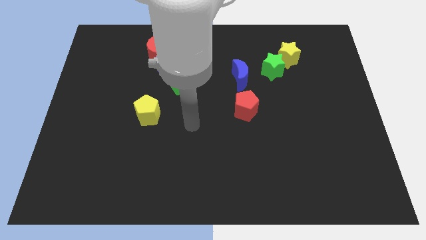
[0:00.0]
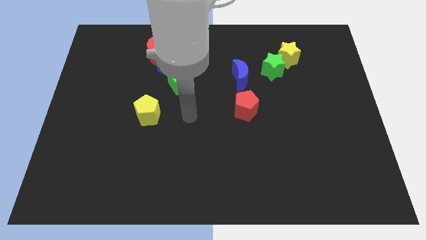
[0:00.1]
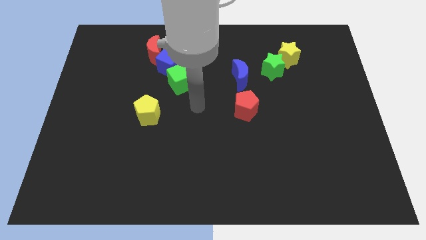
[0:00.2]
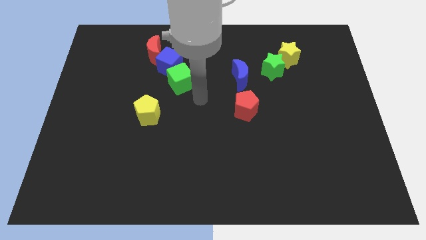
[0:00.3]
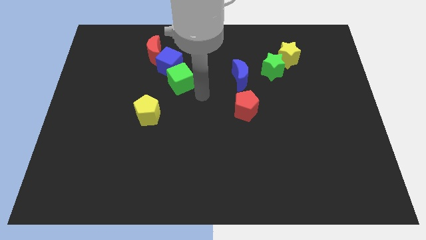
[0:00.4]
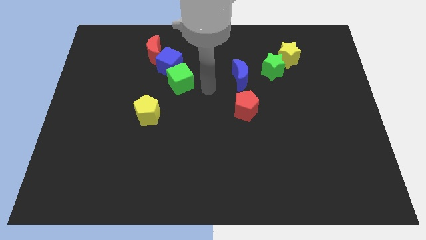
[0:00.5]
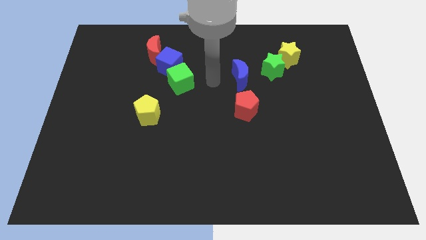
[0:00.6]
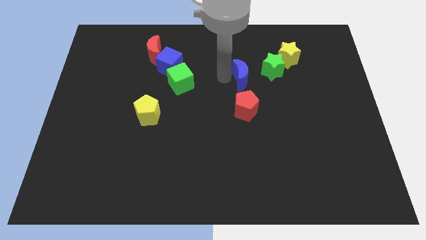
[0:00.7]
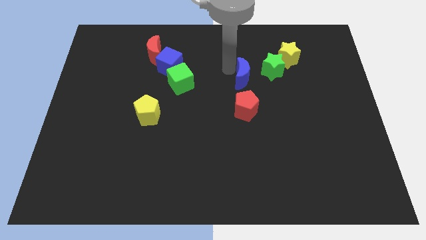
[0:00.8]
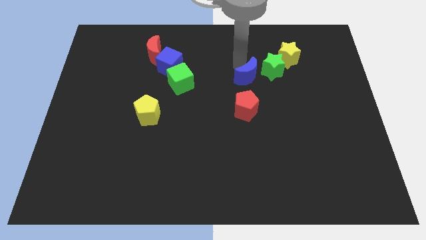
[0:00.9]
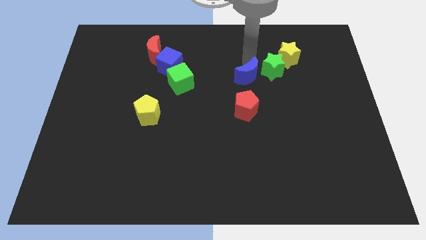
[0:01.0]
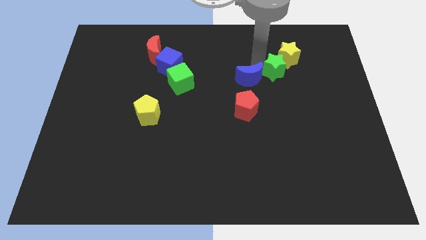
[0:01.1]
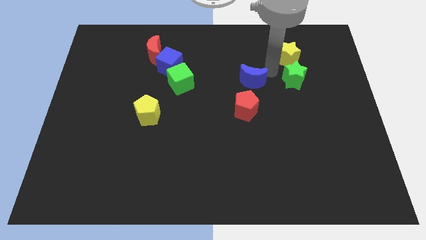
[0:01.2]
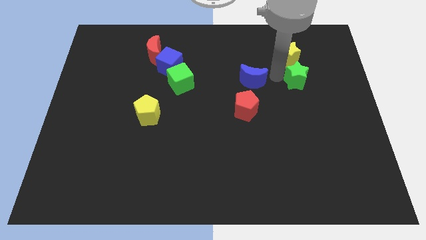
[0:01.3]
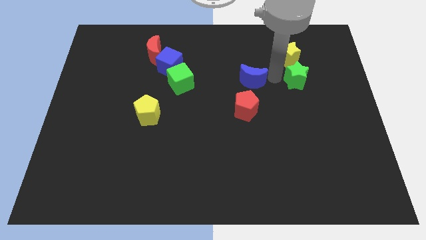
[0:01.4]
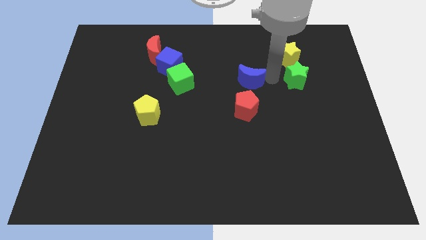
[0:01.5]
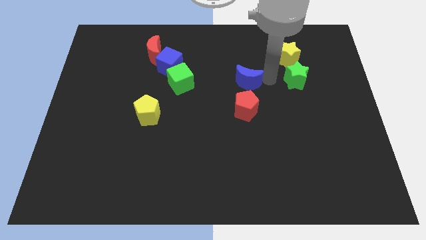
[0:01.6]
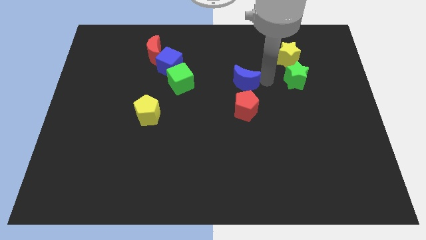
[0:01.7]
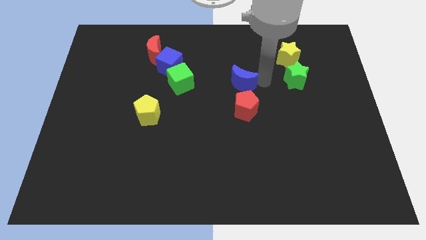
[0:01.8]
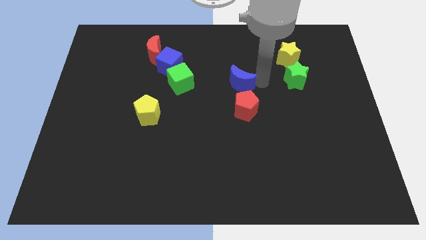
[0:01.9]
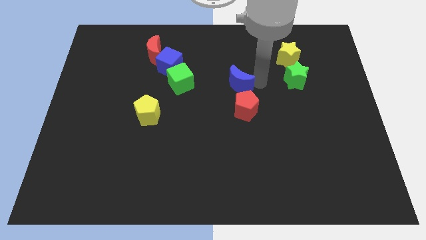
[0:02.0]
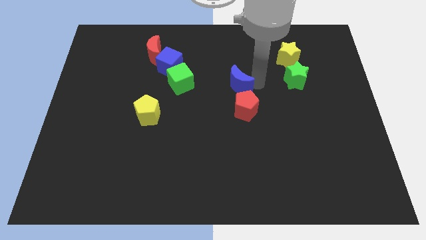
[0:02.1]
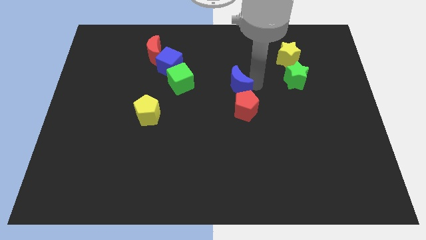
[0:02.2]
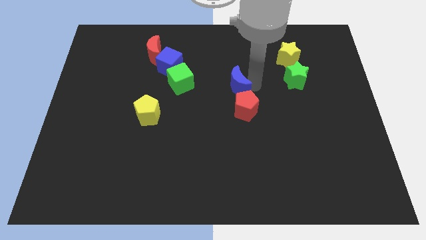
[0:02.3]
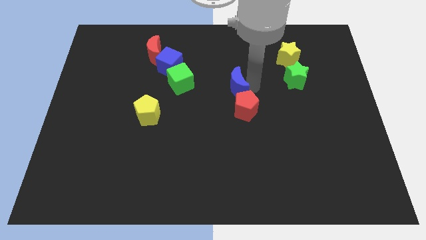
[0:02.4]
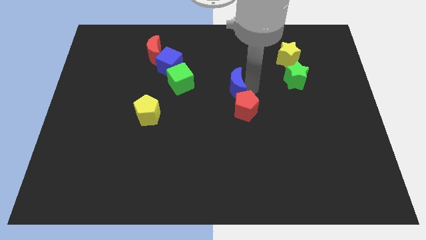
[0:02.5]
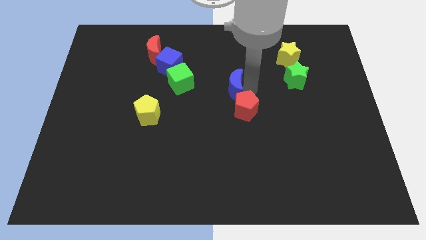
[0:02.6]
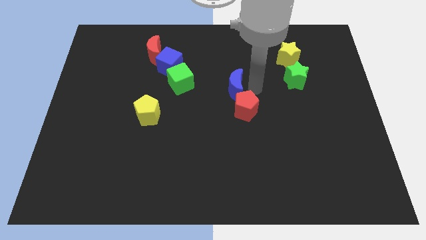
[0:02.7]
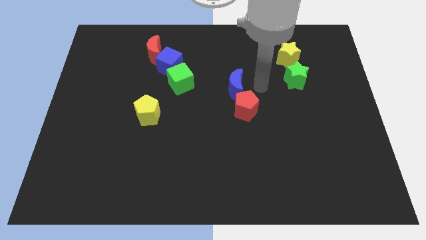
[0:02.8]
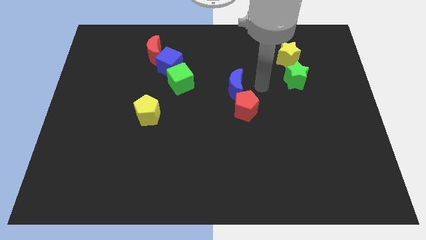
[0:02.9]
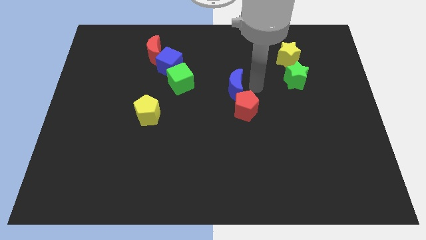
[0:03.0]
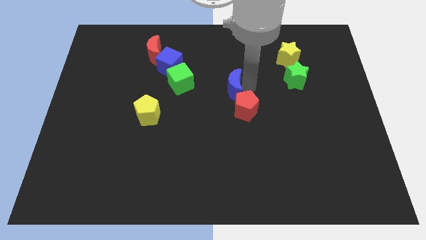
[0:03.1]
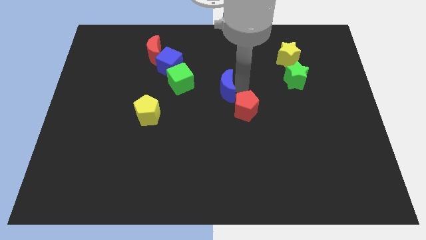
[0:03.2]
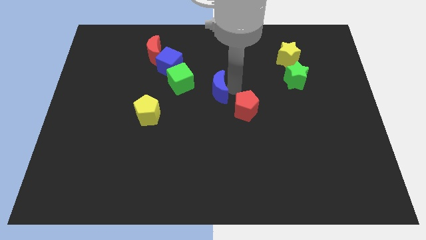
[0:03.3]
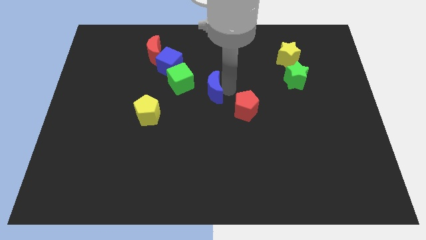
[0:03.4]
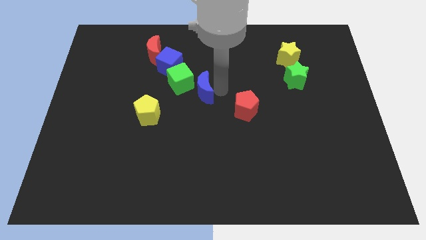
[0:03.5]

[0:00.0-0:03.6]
slightly move the blue moon left

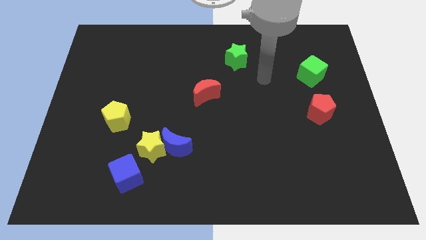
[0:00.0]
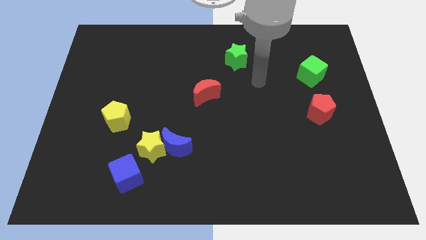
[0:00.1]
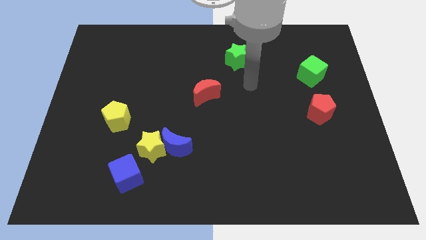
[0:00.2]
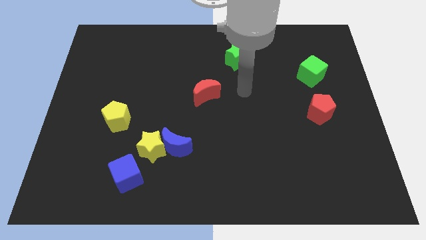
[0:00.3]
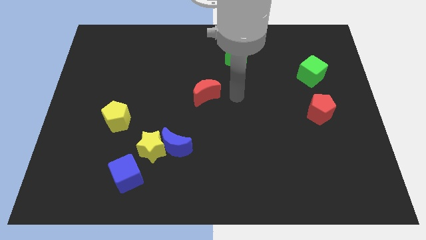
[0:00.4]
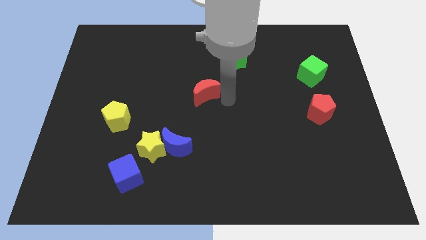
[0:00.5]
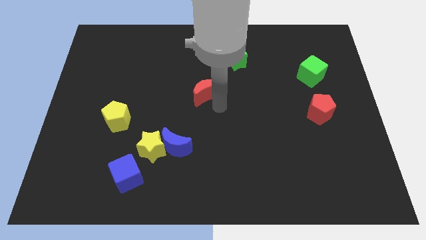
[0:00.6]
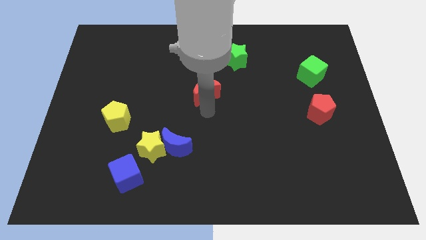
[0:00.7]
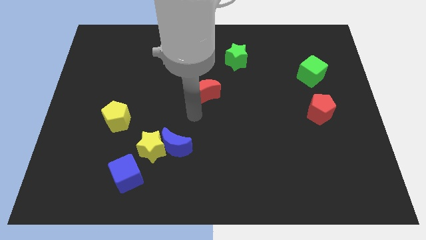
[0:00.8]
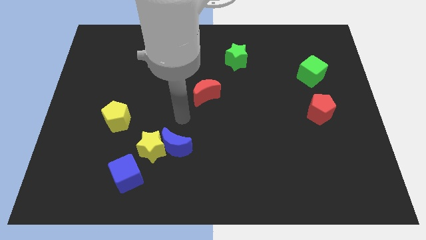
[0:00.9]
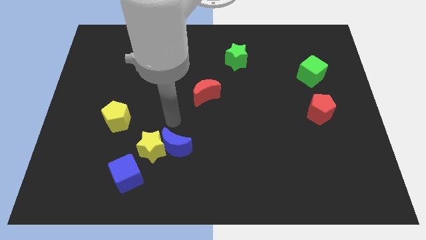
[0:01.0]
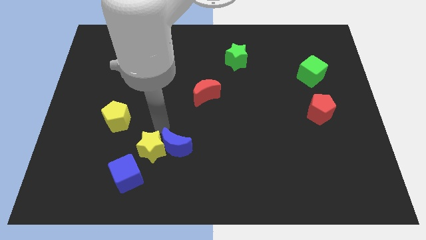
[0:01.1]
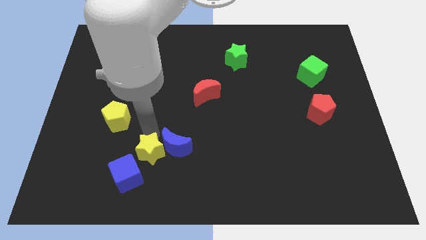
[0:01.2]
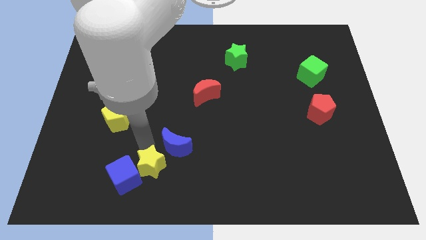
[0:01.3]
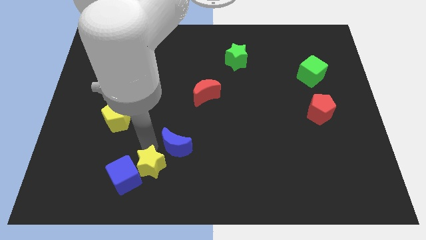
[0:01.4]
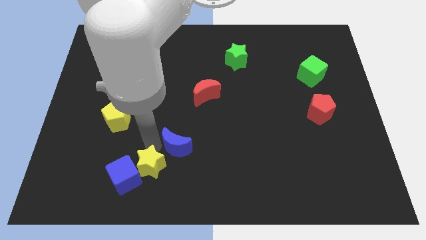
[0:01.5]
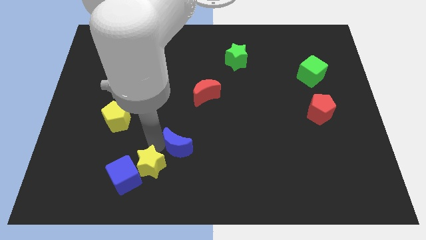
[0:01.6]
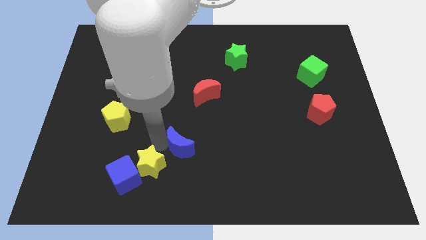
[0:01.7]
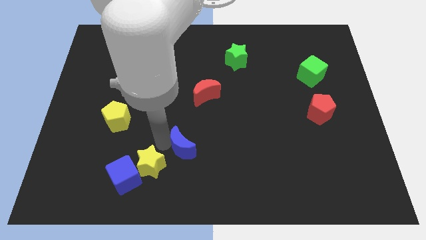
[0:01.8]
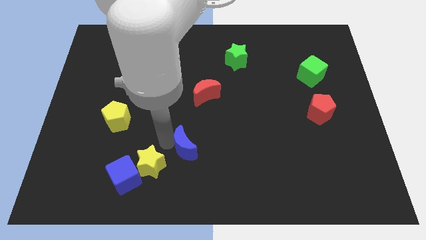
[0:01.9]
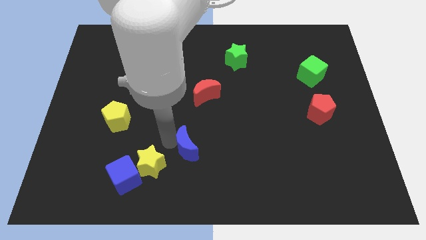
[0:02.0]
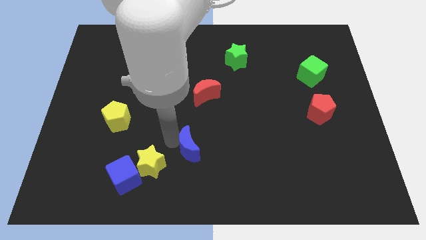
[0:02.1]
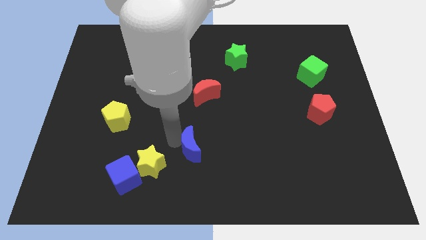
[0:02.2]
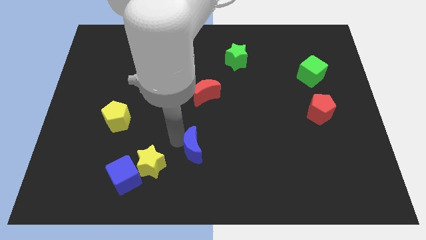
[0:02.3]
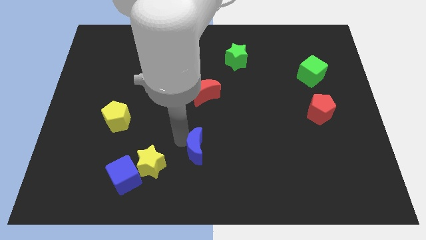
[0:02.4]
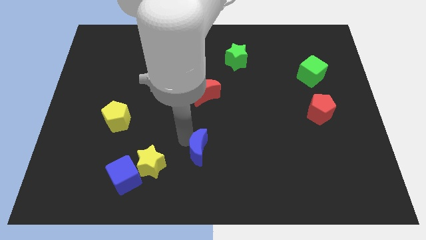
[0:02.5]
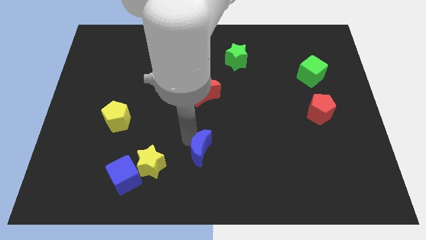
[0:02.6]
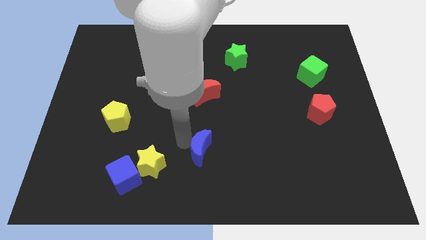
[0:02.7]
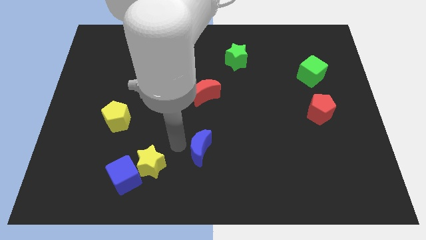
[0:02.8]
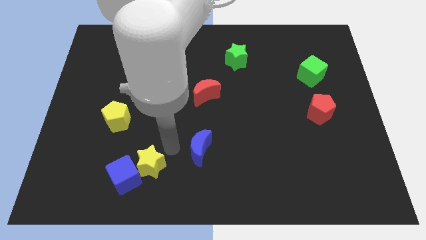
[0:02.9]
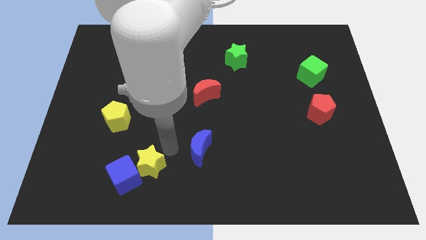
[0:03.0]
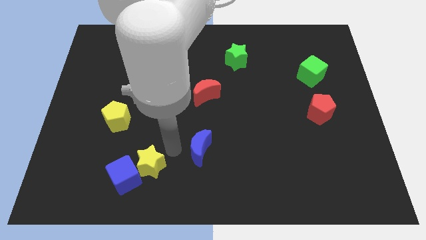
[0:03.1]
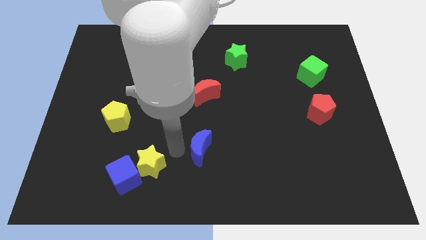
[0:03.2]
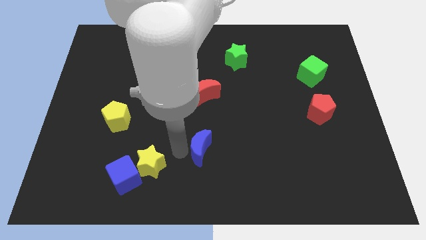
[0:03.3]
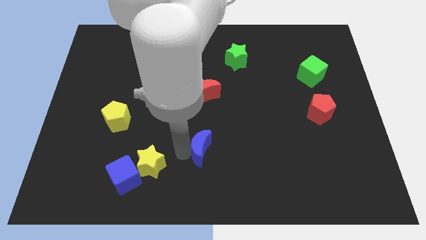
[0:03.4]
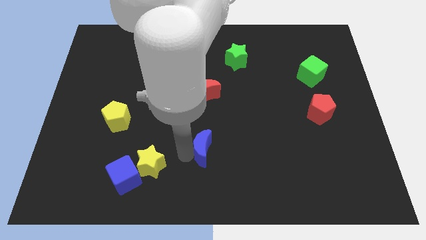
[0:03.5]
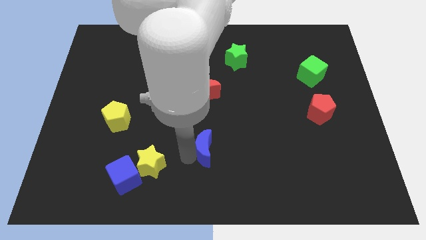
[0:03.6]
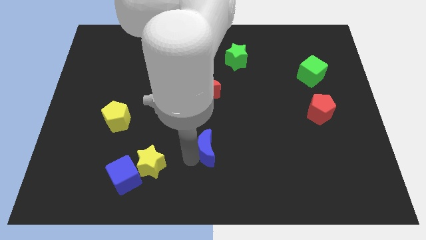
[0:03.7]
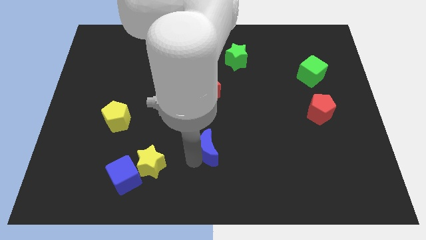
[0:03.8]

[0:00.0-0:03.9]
push the blue moon right a little

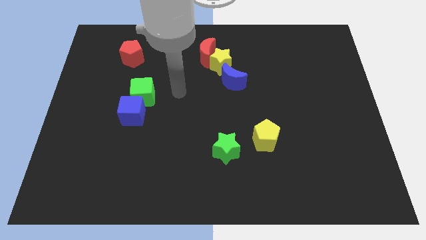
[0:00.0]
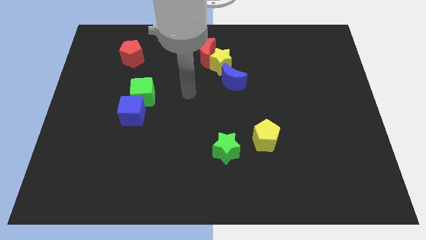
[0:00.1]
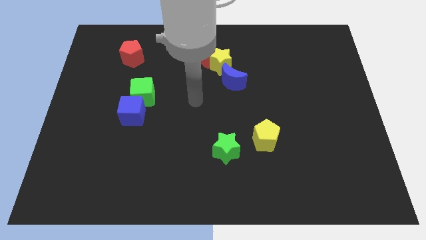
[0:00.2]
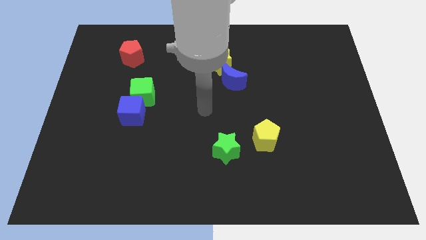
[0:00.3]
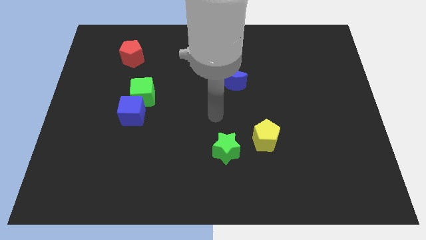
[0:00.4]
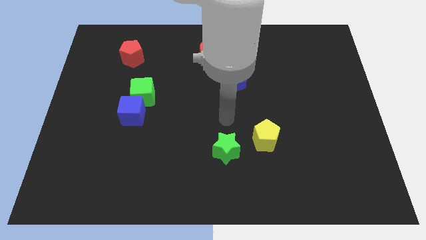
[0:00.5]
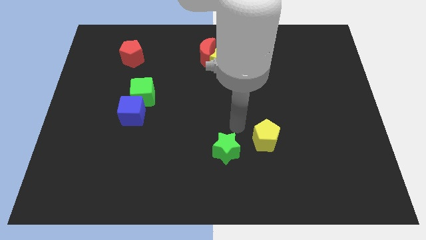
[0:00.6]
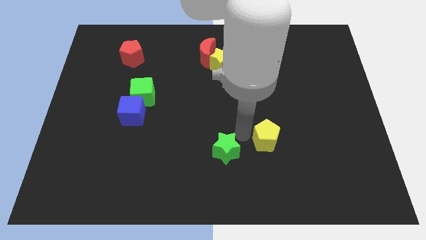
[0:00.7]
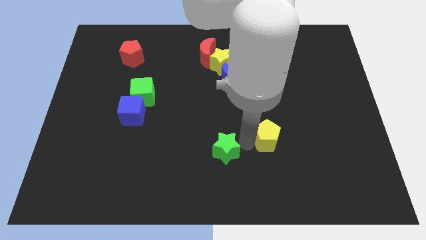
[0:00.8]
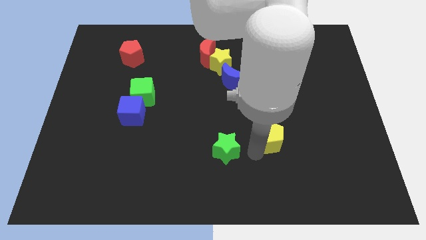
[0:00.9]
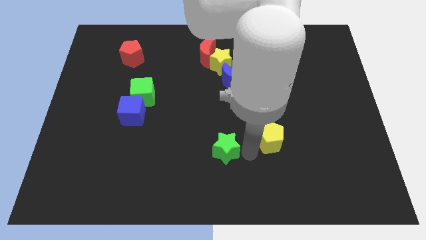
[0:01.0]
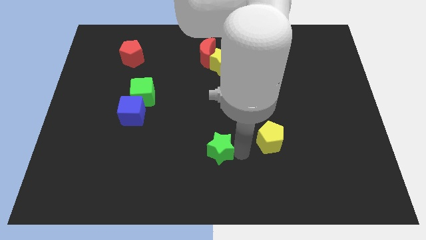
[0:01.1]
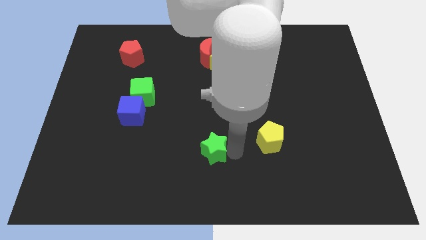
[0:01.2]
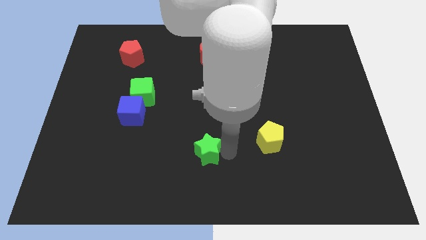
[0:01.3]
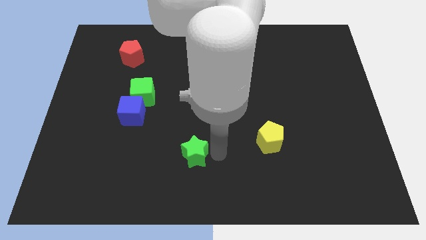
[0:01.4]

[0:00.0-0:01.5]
move the green star slightly left
